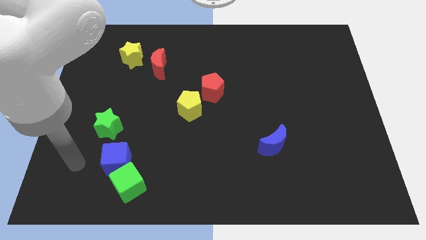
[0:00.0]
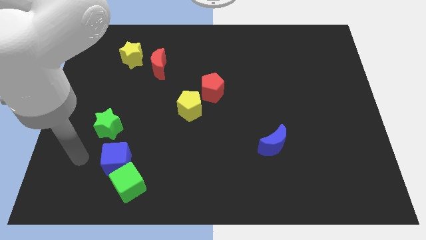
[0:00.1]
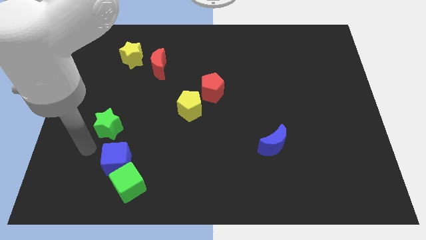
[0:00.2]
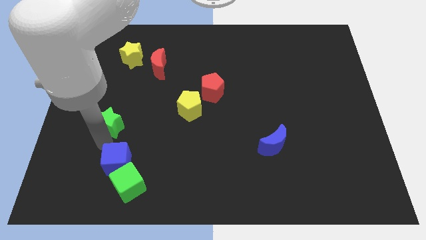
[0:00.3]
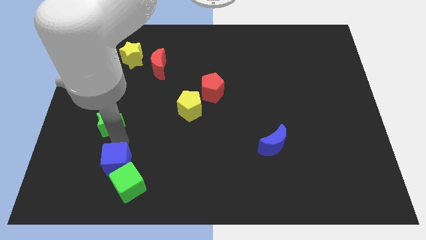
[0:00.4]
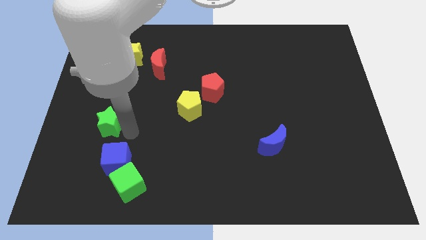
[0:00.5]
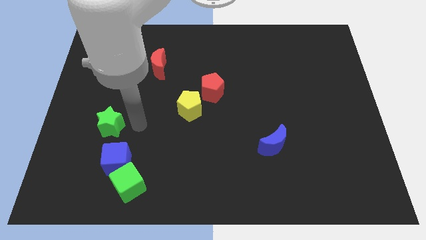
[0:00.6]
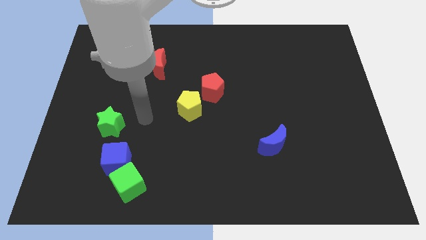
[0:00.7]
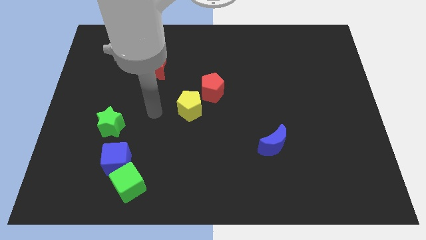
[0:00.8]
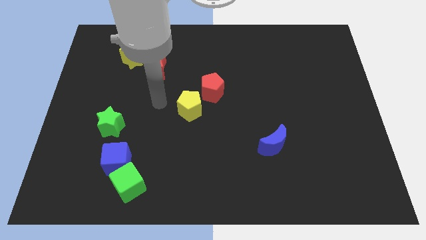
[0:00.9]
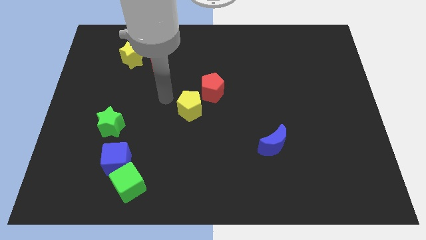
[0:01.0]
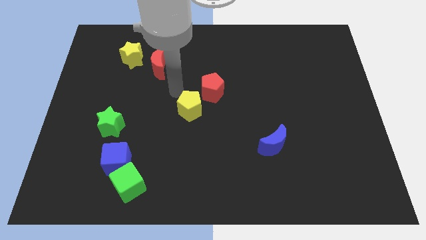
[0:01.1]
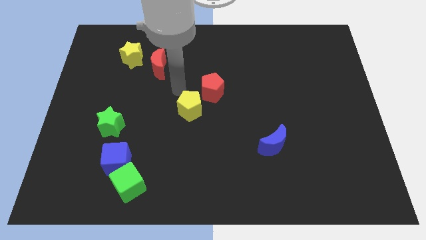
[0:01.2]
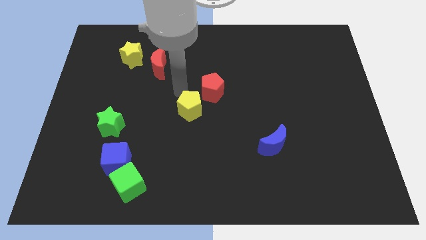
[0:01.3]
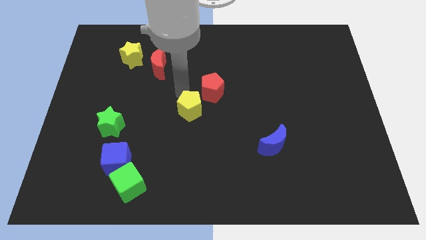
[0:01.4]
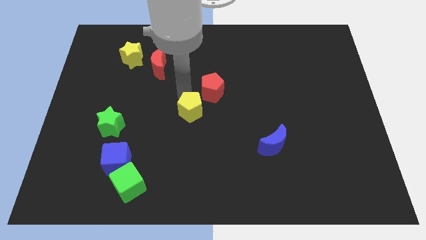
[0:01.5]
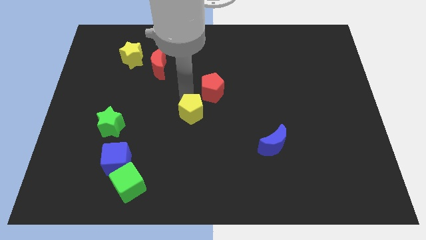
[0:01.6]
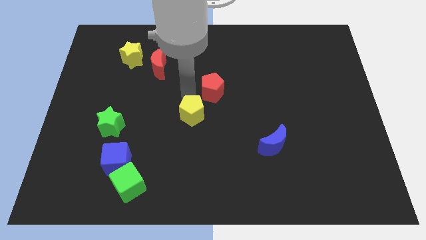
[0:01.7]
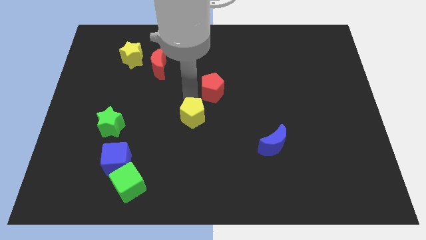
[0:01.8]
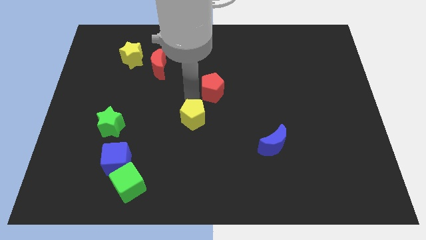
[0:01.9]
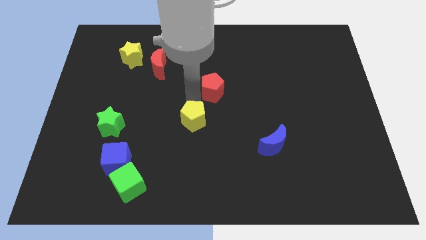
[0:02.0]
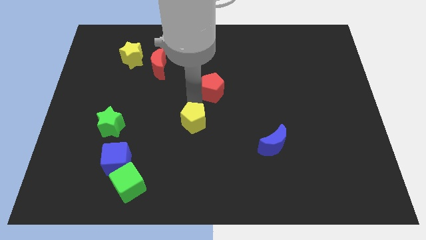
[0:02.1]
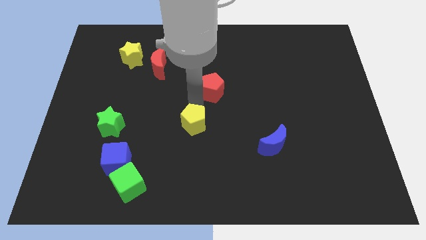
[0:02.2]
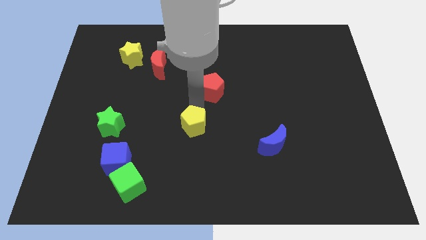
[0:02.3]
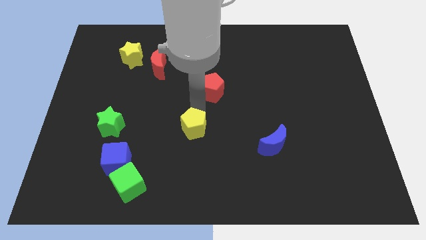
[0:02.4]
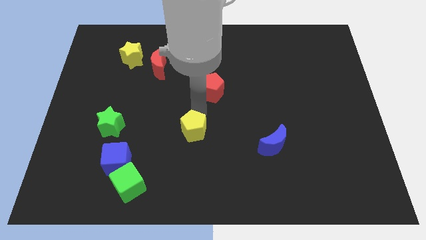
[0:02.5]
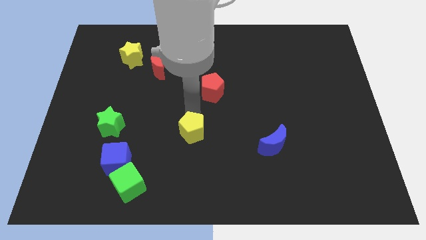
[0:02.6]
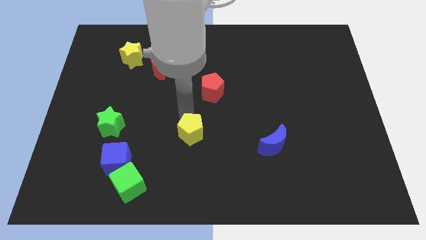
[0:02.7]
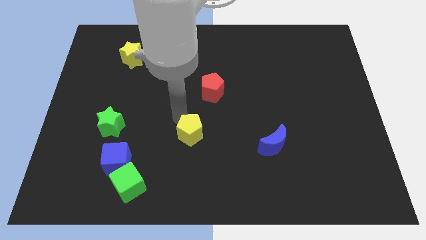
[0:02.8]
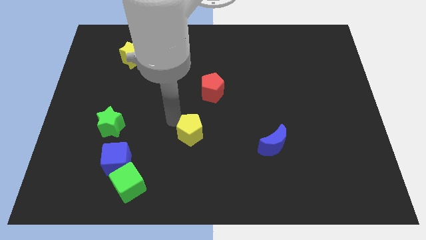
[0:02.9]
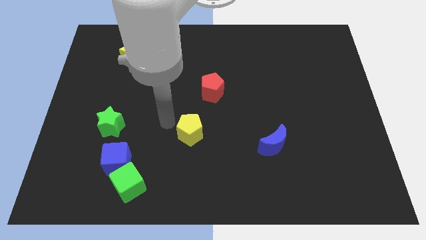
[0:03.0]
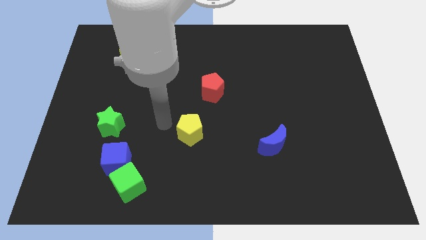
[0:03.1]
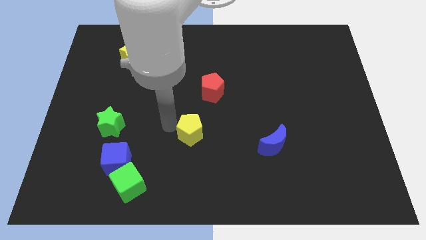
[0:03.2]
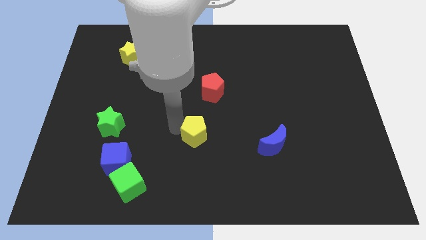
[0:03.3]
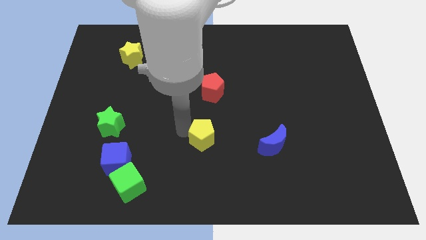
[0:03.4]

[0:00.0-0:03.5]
move the yellow pentagon a little down and to the right diagonally

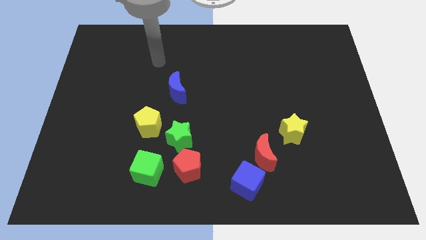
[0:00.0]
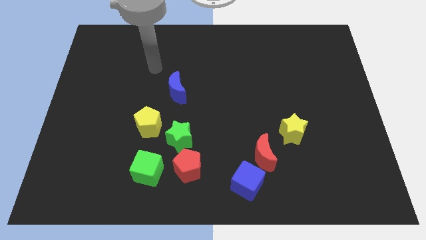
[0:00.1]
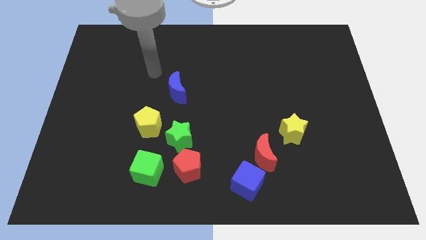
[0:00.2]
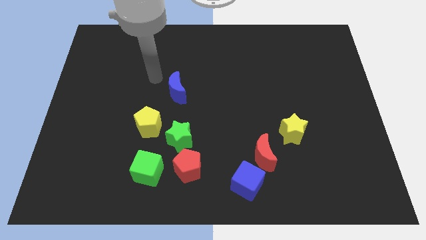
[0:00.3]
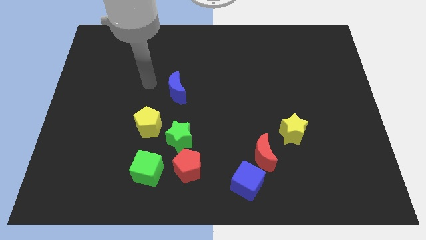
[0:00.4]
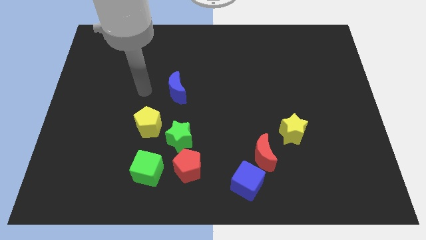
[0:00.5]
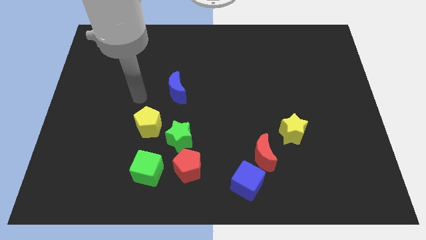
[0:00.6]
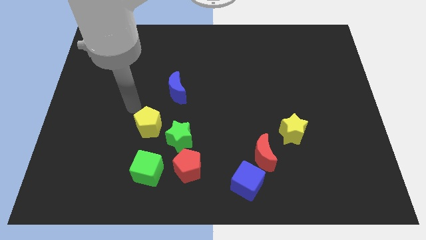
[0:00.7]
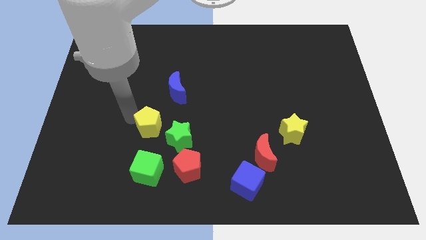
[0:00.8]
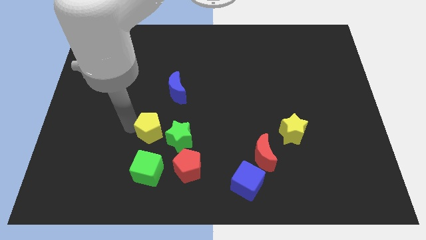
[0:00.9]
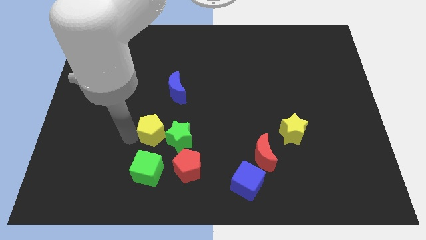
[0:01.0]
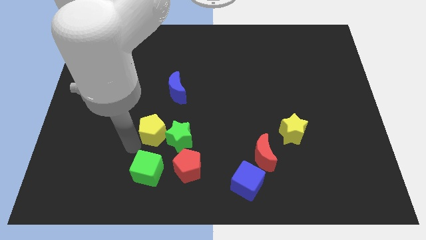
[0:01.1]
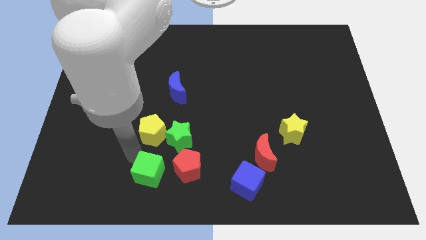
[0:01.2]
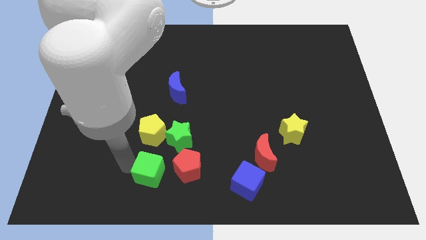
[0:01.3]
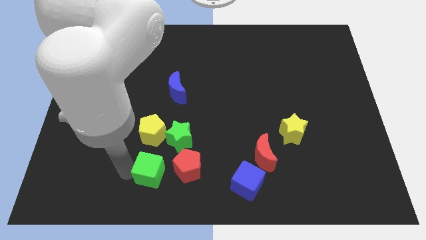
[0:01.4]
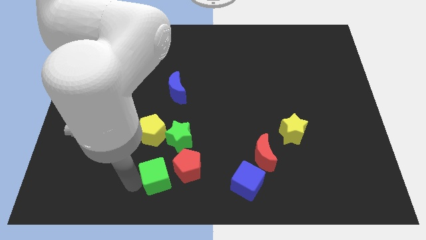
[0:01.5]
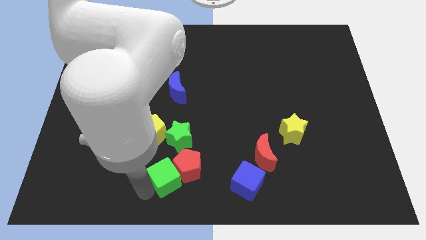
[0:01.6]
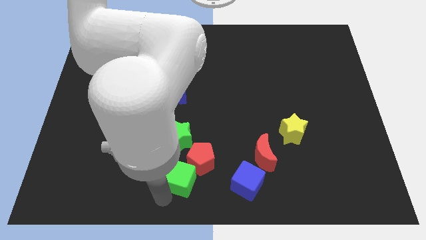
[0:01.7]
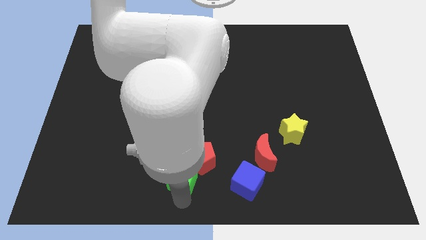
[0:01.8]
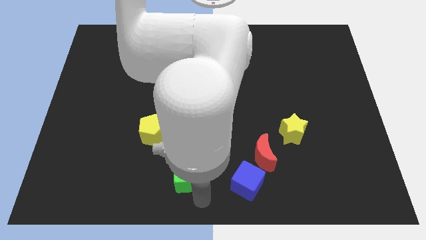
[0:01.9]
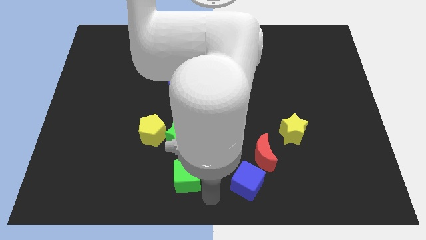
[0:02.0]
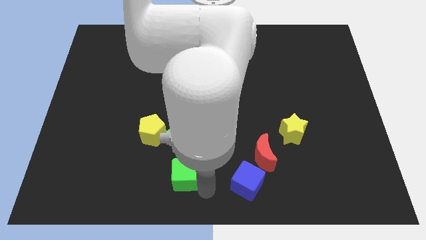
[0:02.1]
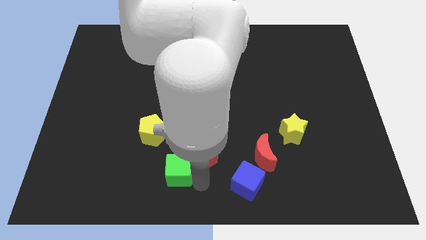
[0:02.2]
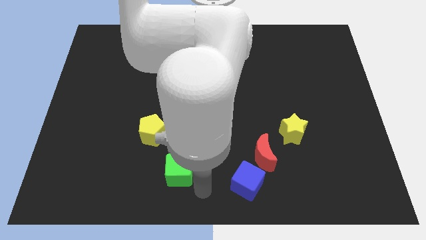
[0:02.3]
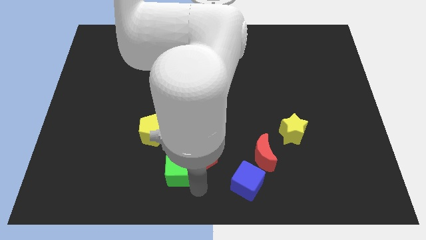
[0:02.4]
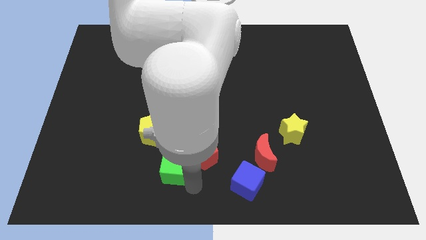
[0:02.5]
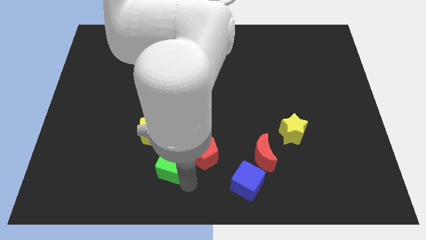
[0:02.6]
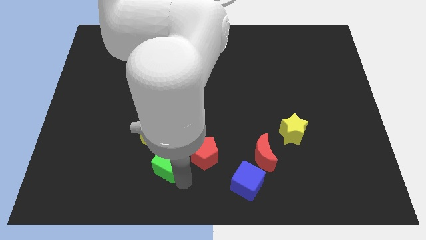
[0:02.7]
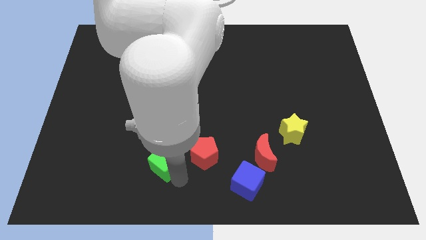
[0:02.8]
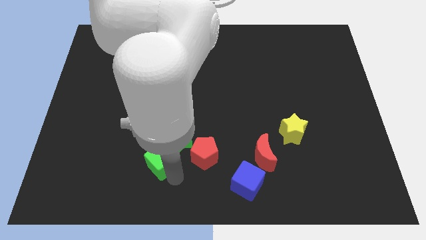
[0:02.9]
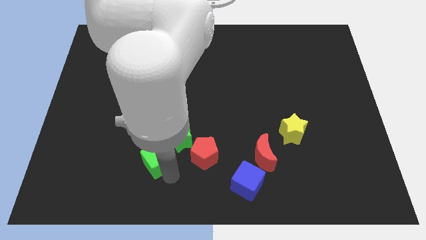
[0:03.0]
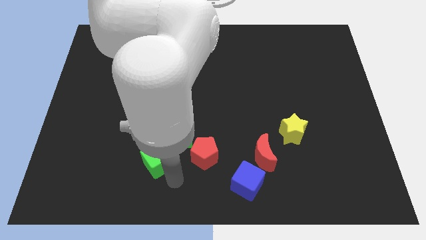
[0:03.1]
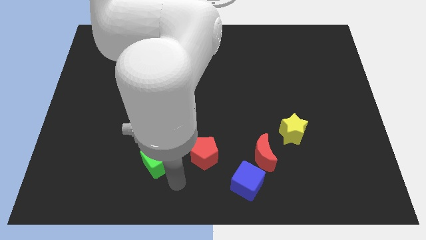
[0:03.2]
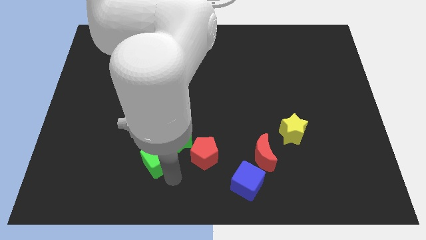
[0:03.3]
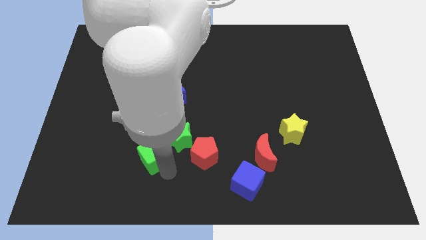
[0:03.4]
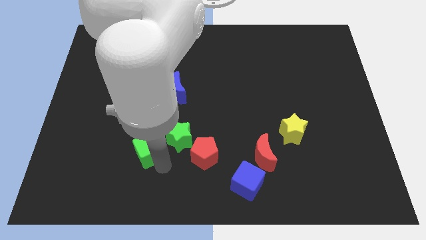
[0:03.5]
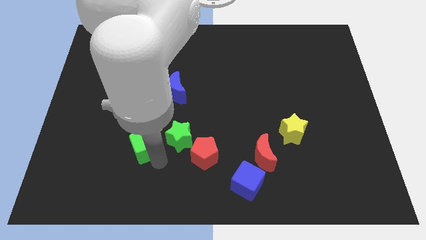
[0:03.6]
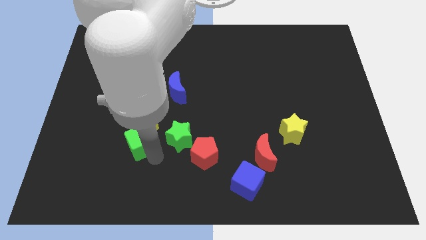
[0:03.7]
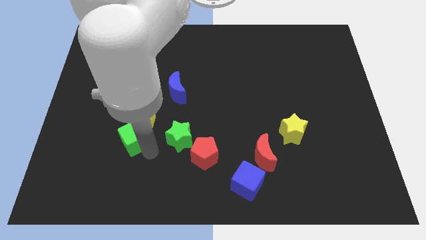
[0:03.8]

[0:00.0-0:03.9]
push the green cube slightly upwards

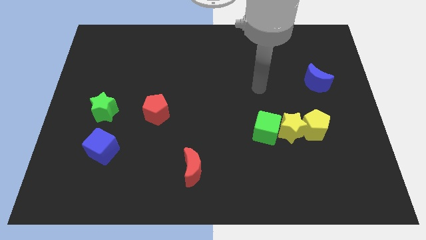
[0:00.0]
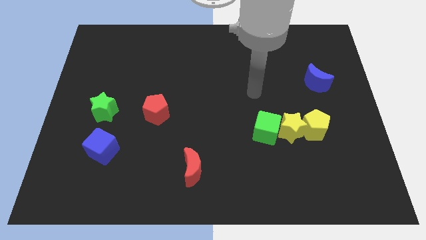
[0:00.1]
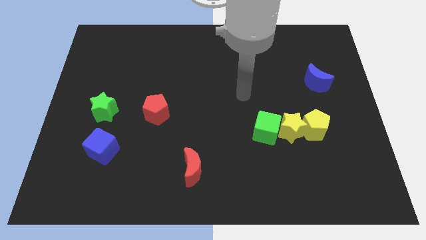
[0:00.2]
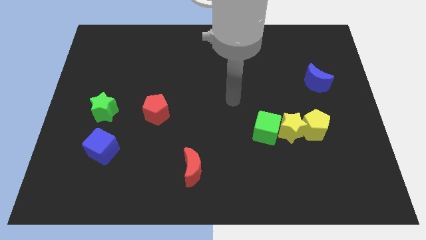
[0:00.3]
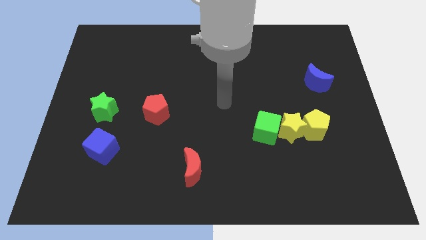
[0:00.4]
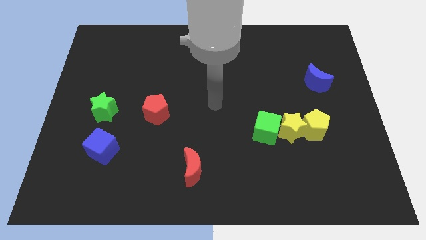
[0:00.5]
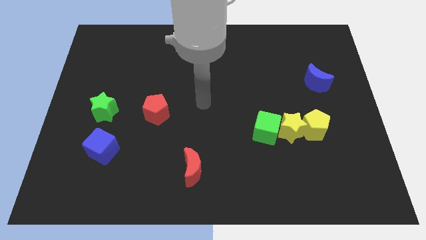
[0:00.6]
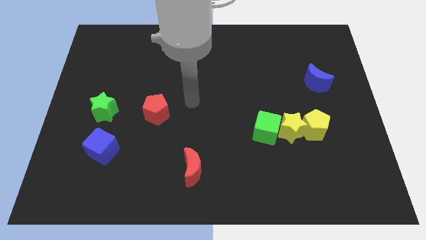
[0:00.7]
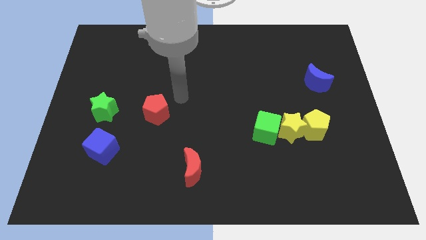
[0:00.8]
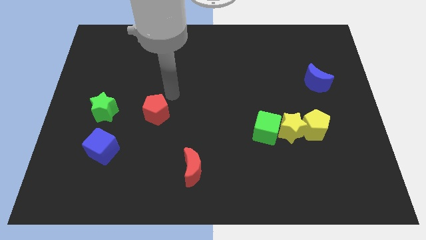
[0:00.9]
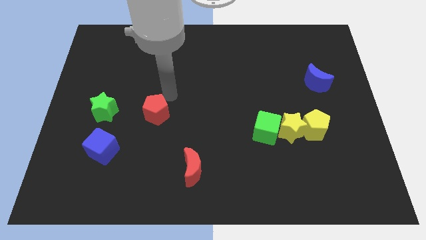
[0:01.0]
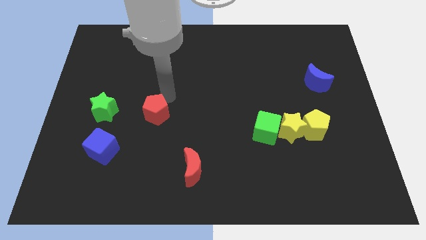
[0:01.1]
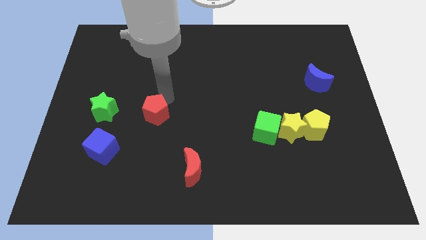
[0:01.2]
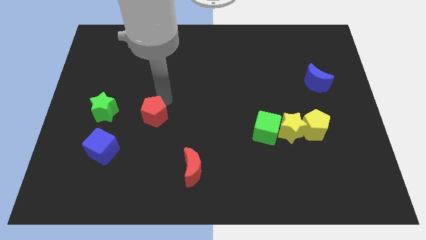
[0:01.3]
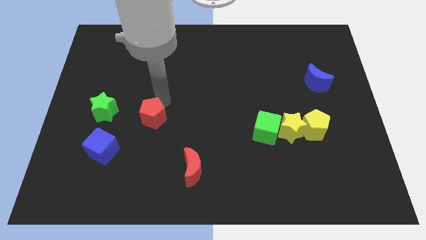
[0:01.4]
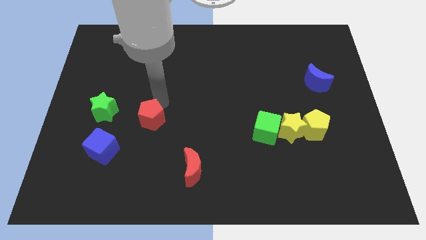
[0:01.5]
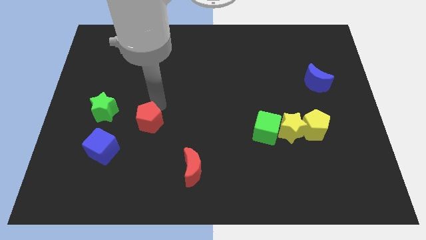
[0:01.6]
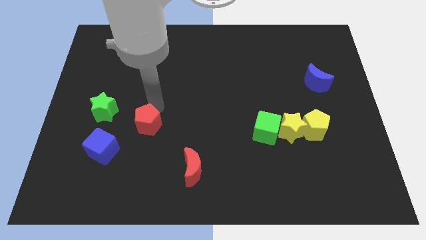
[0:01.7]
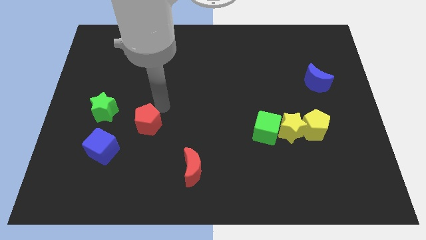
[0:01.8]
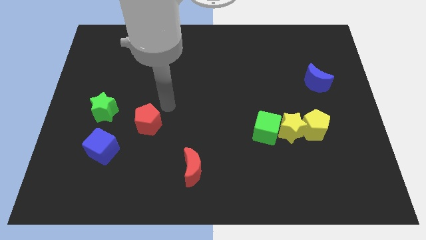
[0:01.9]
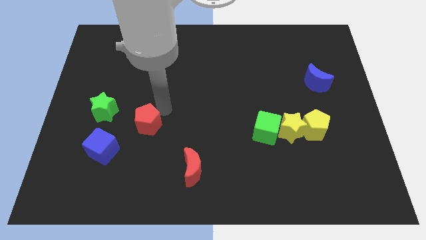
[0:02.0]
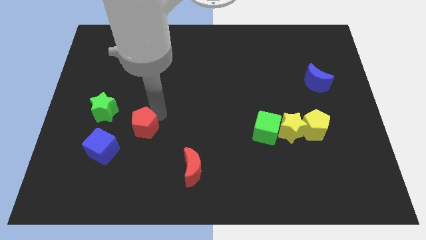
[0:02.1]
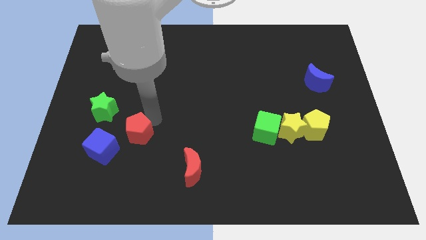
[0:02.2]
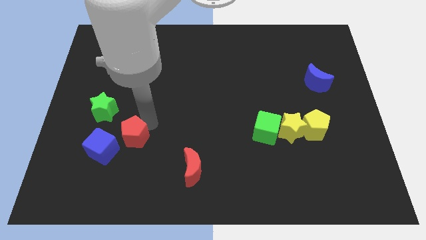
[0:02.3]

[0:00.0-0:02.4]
move the red pentagon slightly downwards and left diagonally
